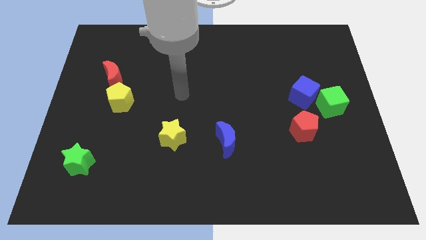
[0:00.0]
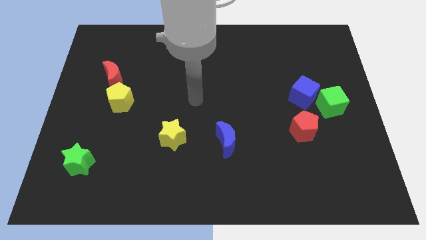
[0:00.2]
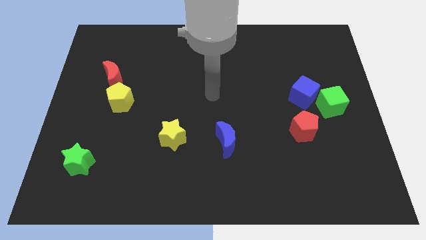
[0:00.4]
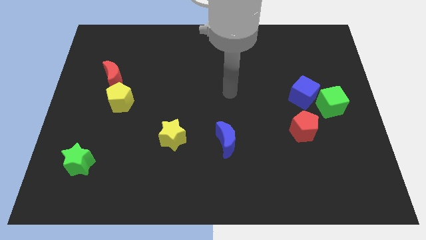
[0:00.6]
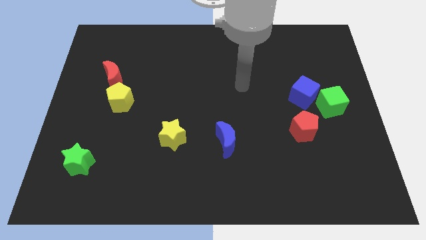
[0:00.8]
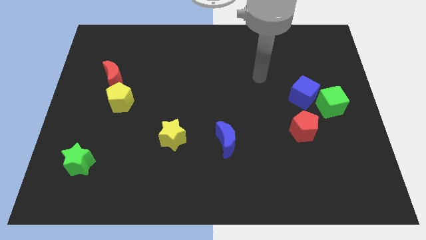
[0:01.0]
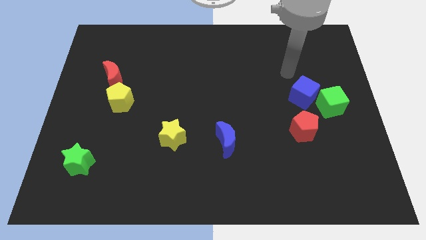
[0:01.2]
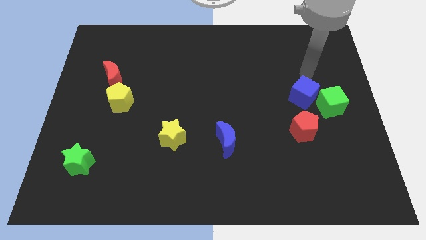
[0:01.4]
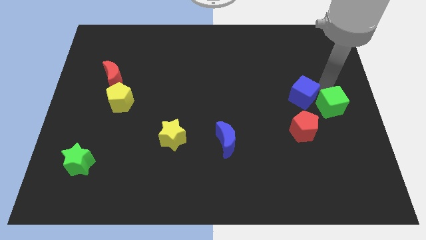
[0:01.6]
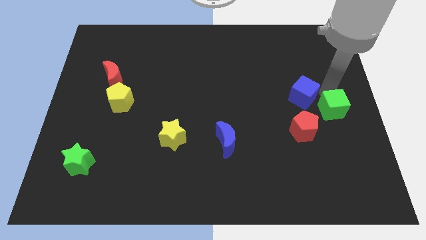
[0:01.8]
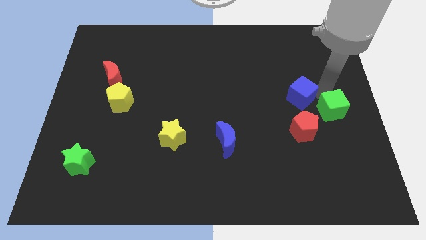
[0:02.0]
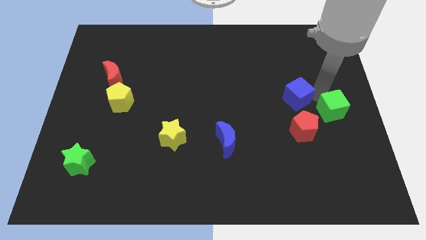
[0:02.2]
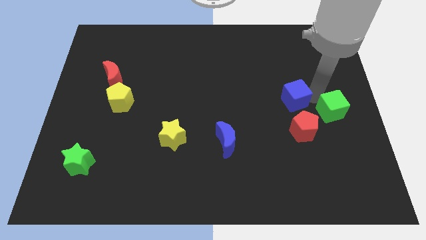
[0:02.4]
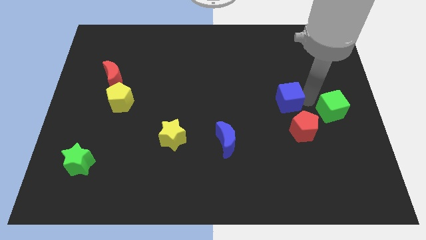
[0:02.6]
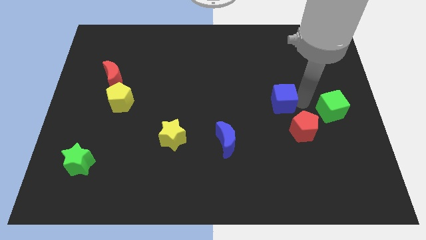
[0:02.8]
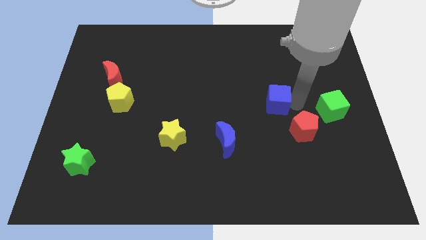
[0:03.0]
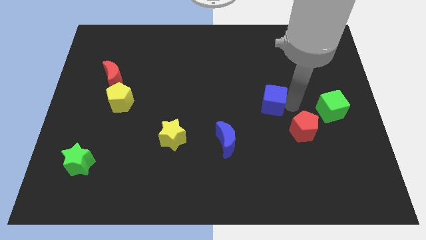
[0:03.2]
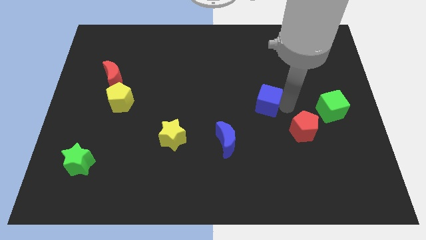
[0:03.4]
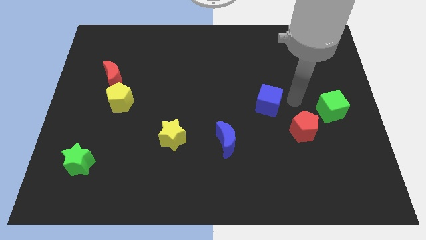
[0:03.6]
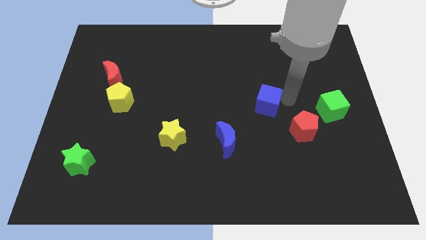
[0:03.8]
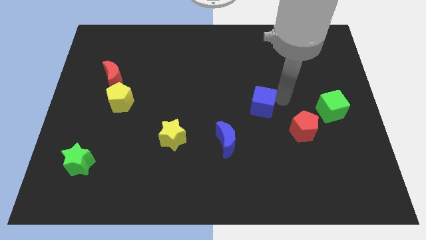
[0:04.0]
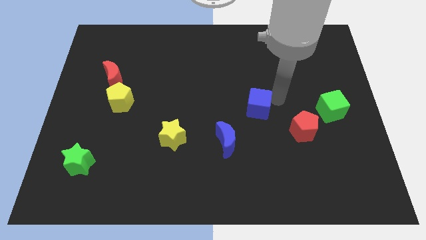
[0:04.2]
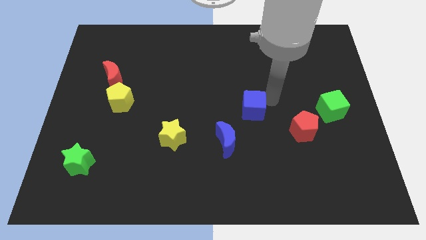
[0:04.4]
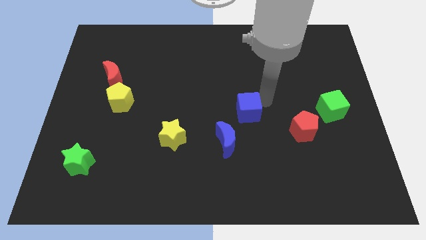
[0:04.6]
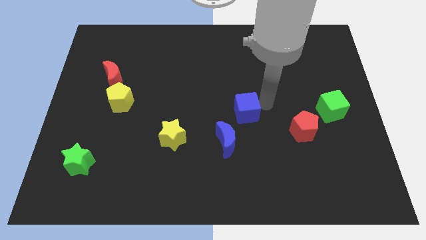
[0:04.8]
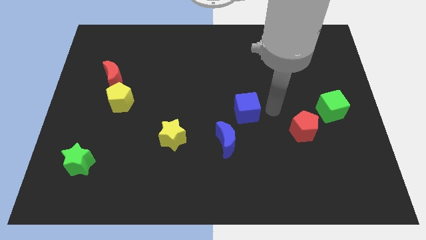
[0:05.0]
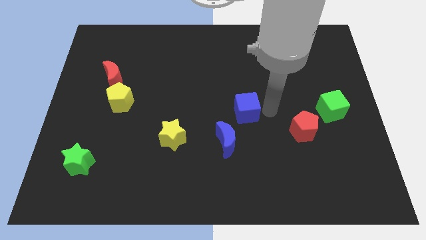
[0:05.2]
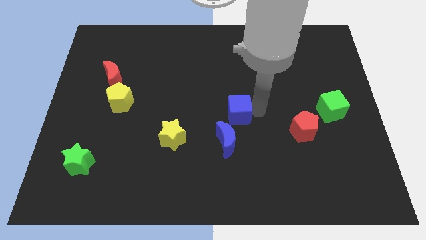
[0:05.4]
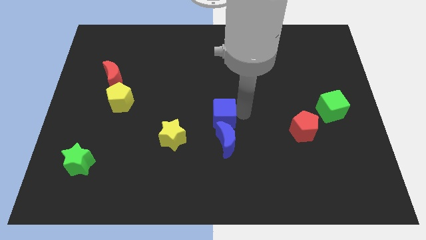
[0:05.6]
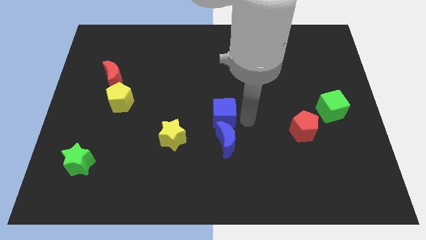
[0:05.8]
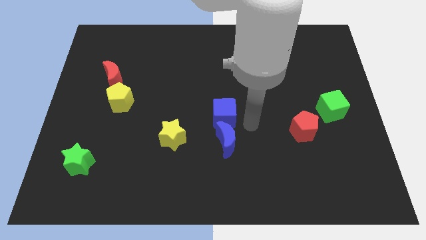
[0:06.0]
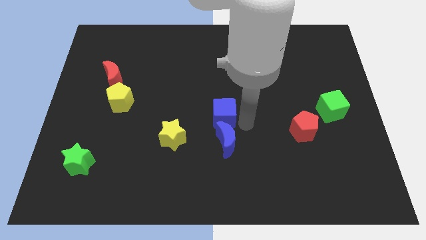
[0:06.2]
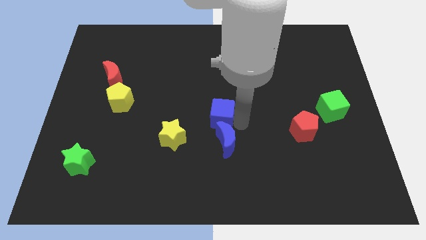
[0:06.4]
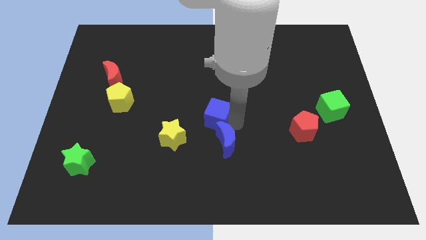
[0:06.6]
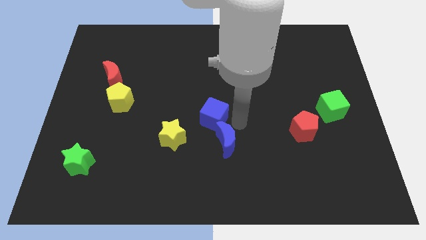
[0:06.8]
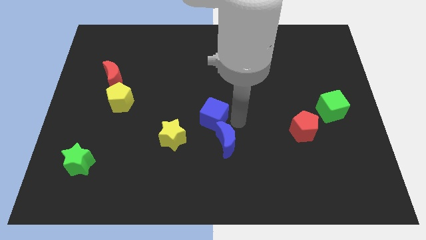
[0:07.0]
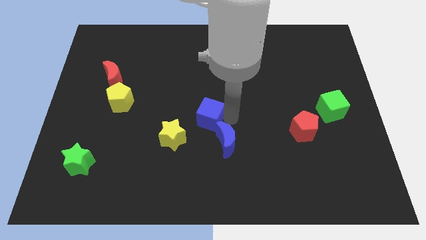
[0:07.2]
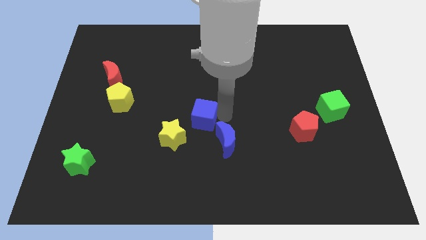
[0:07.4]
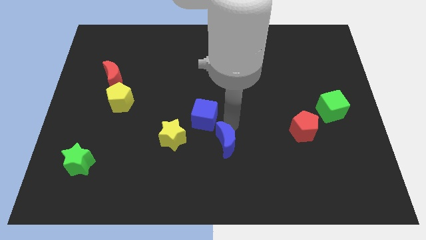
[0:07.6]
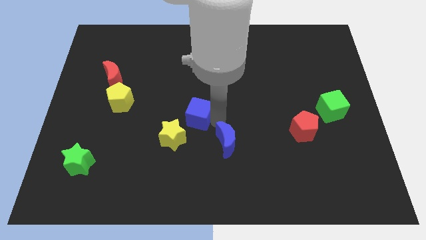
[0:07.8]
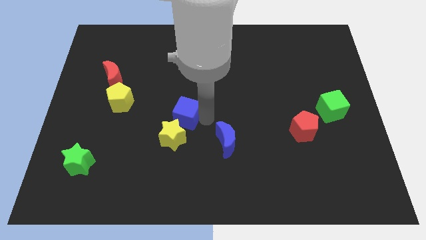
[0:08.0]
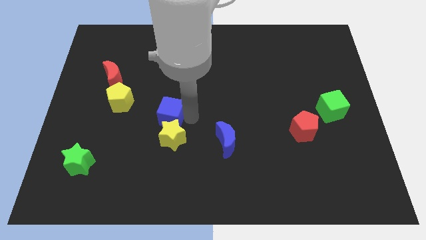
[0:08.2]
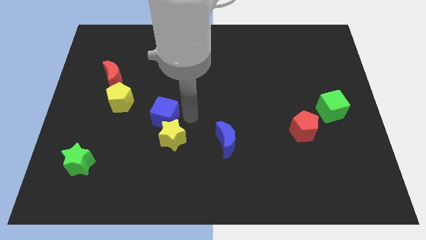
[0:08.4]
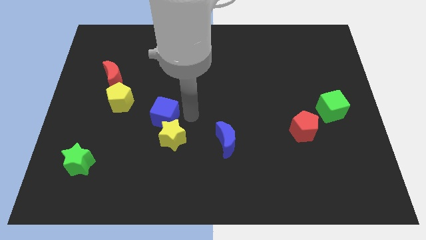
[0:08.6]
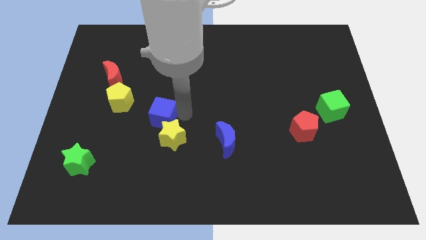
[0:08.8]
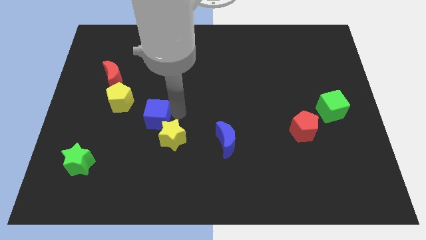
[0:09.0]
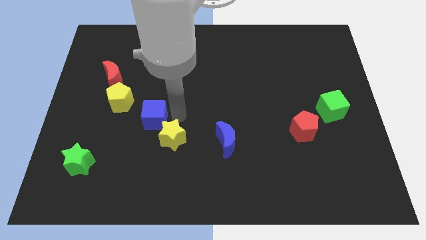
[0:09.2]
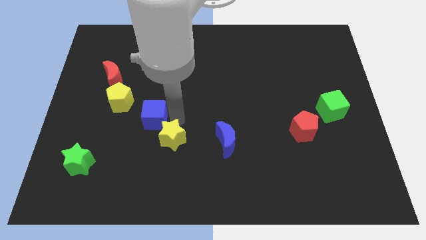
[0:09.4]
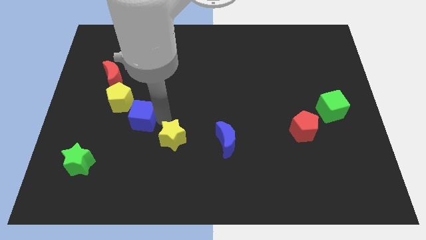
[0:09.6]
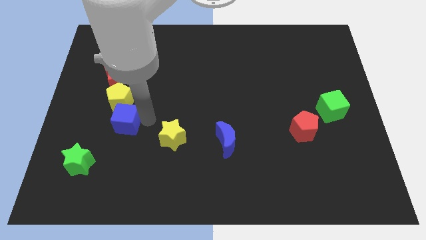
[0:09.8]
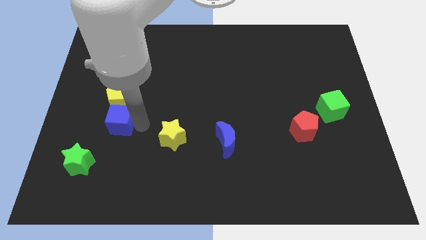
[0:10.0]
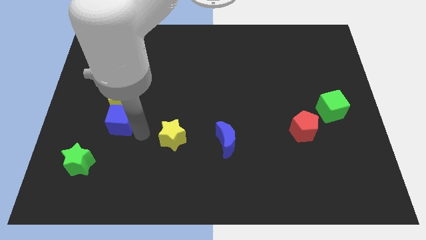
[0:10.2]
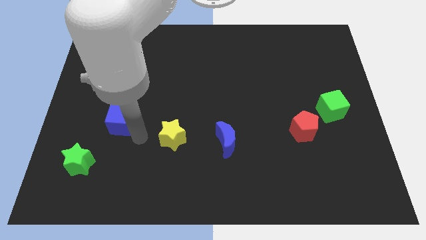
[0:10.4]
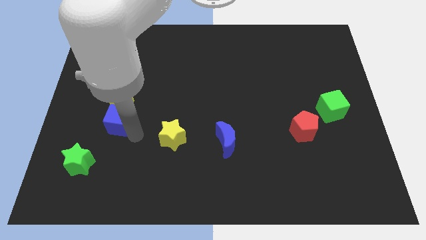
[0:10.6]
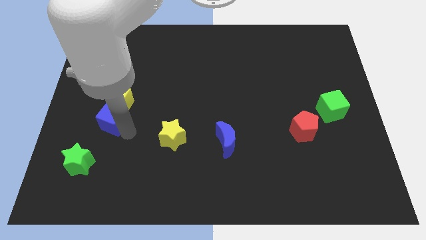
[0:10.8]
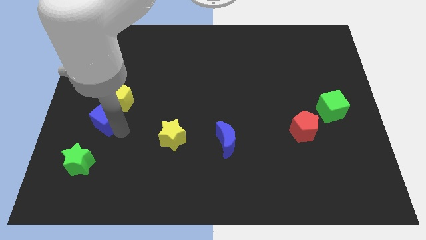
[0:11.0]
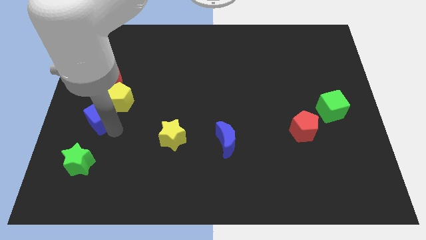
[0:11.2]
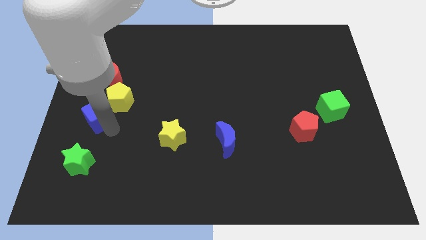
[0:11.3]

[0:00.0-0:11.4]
push the blue cube to the center left

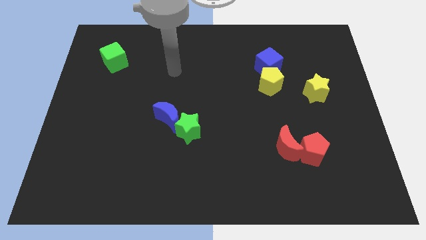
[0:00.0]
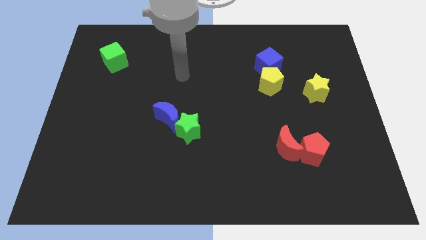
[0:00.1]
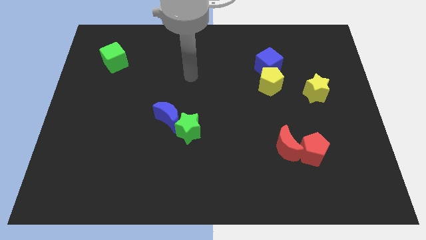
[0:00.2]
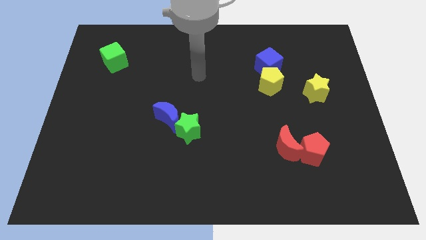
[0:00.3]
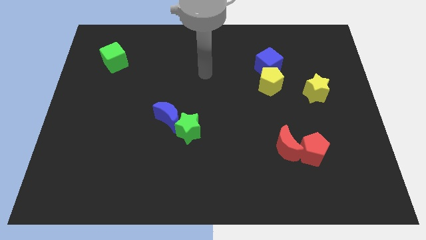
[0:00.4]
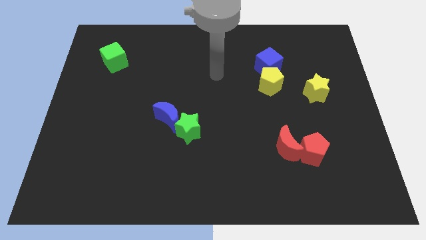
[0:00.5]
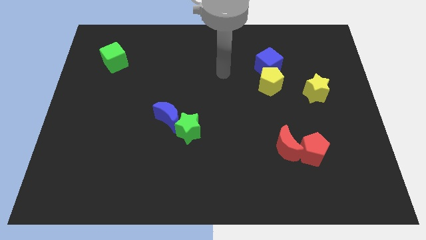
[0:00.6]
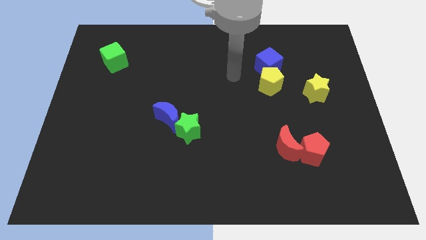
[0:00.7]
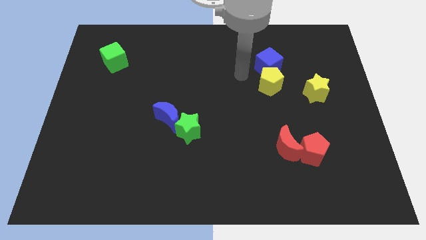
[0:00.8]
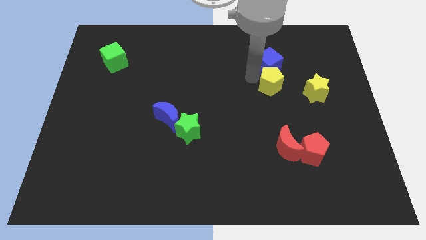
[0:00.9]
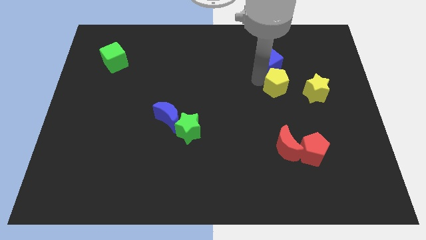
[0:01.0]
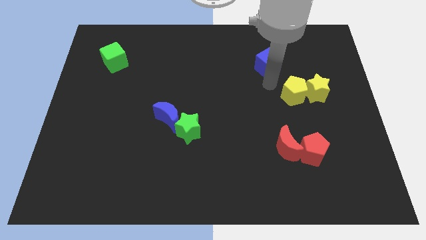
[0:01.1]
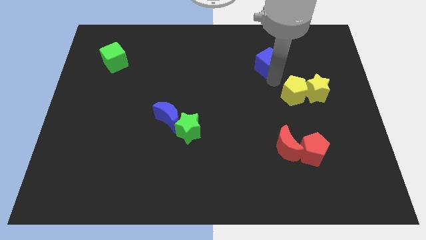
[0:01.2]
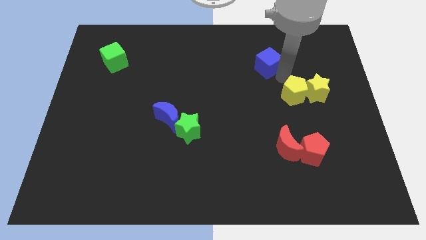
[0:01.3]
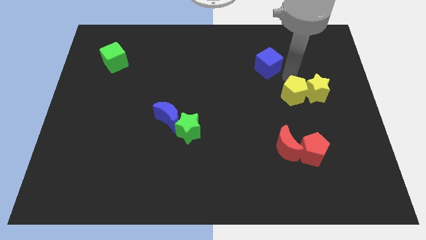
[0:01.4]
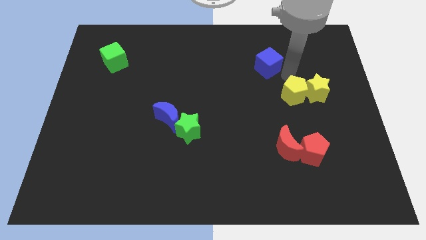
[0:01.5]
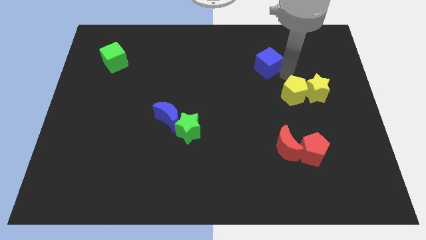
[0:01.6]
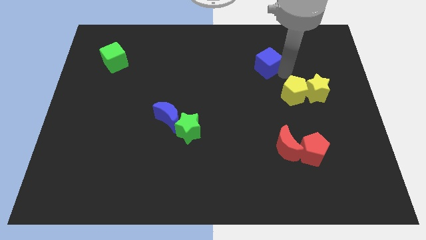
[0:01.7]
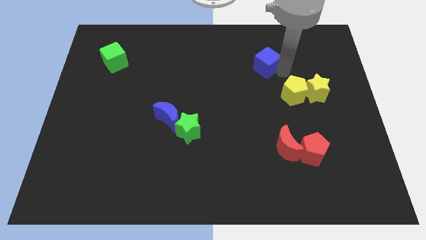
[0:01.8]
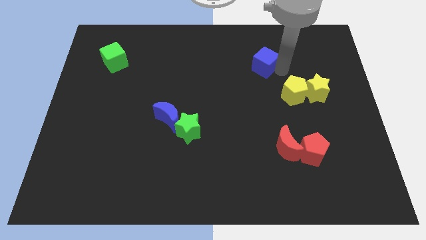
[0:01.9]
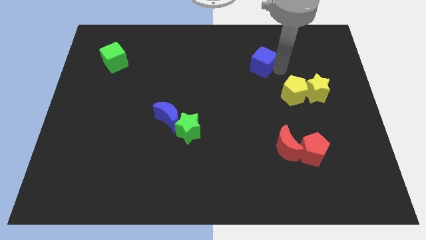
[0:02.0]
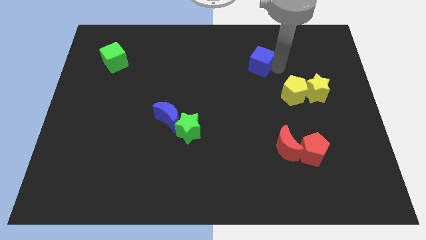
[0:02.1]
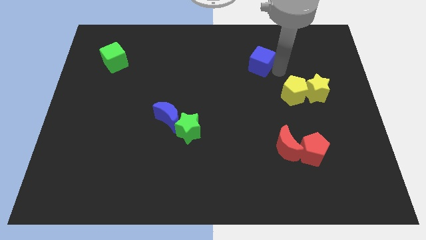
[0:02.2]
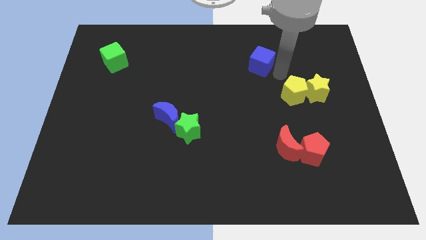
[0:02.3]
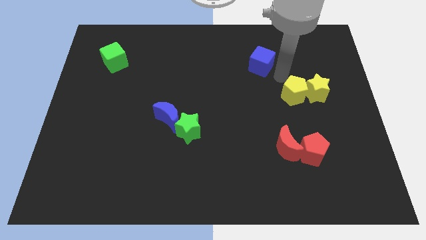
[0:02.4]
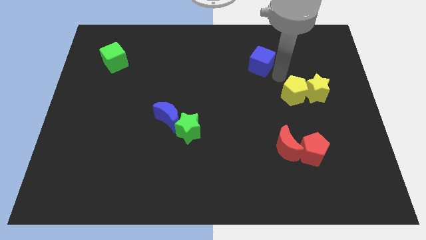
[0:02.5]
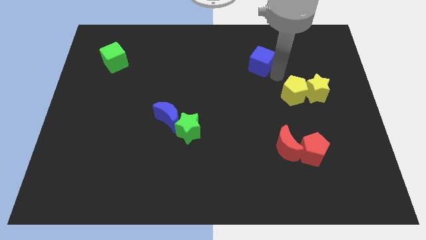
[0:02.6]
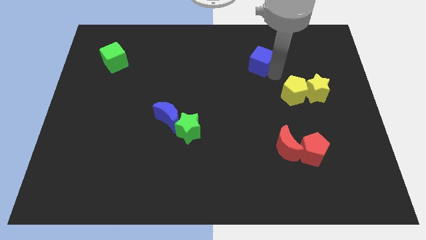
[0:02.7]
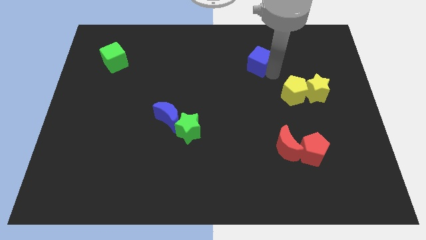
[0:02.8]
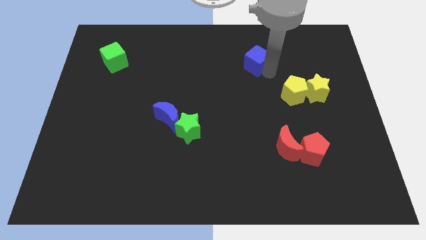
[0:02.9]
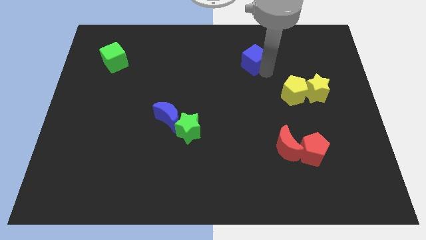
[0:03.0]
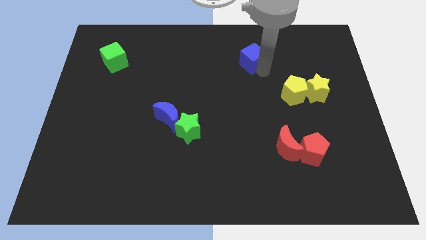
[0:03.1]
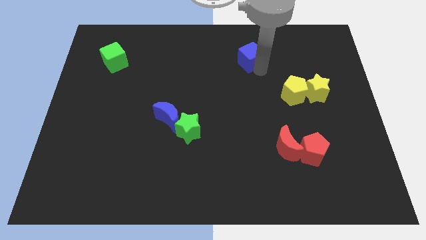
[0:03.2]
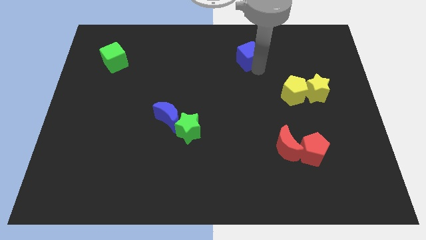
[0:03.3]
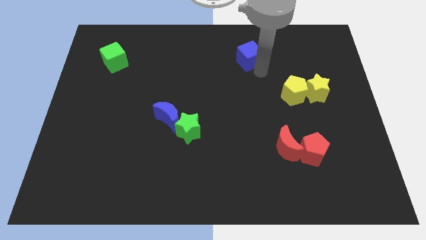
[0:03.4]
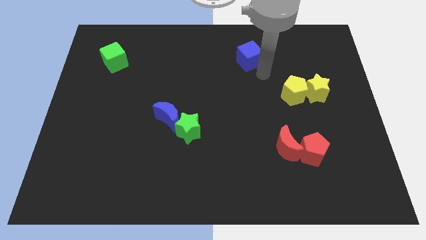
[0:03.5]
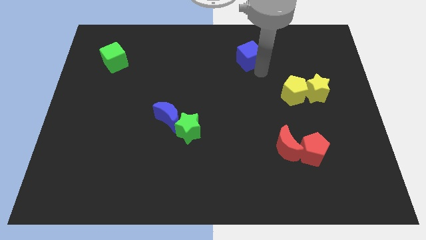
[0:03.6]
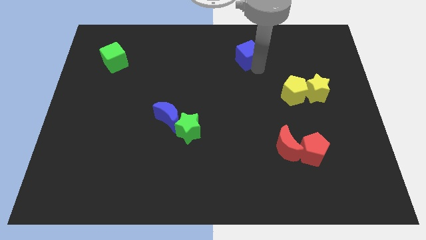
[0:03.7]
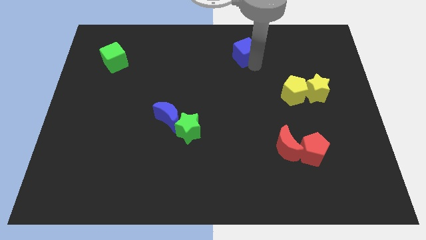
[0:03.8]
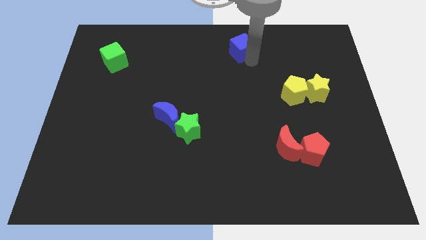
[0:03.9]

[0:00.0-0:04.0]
push the blue cube to the towards your base
